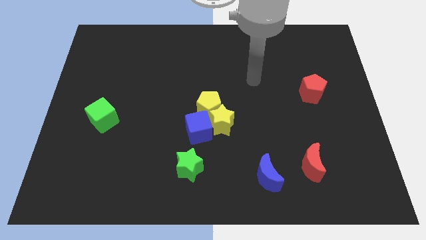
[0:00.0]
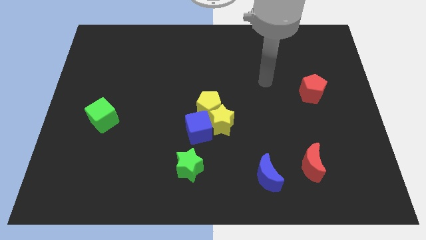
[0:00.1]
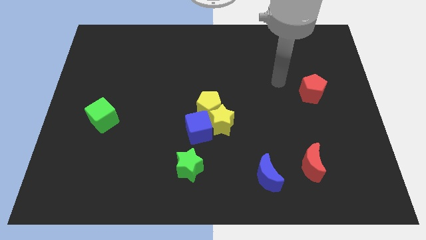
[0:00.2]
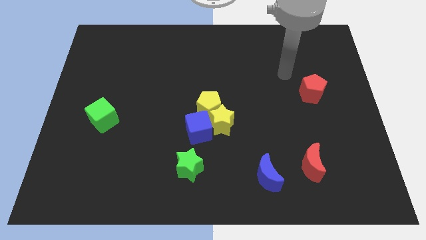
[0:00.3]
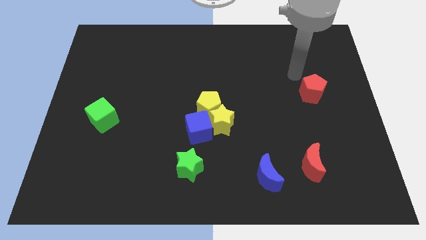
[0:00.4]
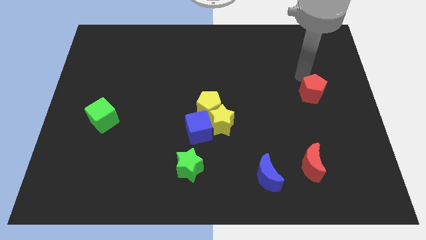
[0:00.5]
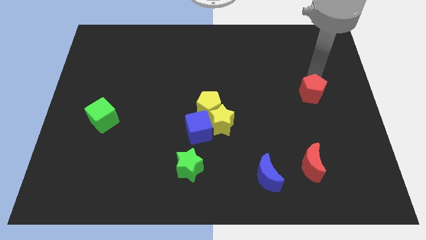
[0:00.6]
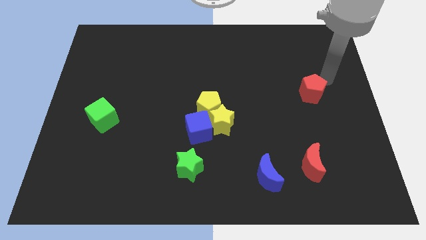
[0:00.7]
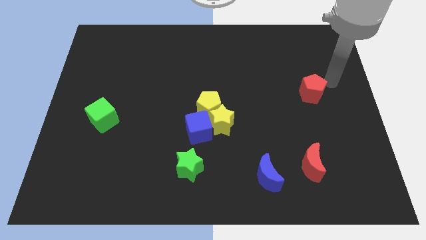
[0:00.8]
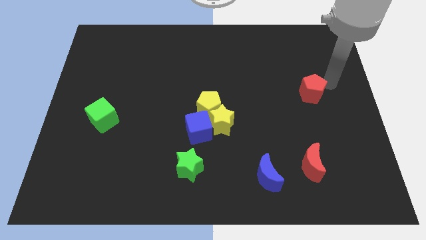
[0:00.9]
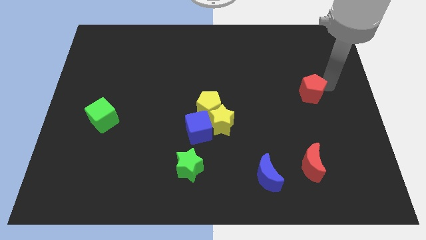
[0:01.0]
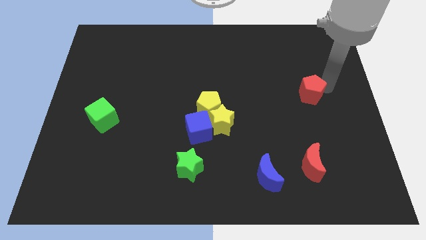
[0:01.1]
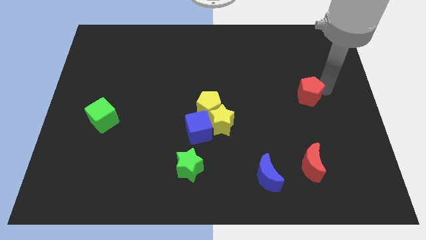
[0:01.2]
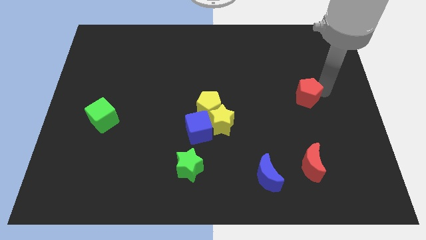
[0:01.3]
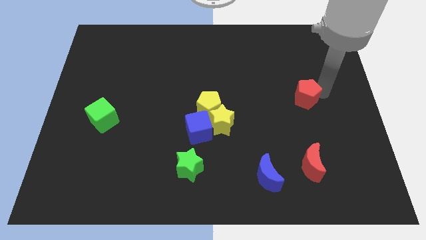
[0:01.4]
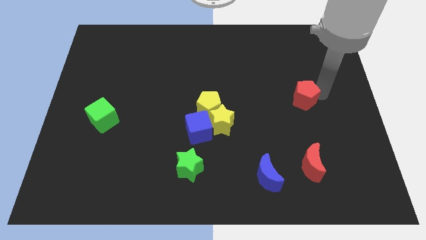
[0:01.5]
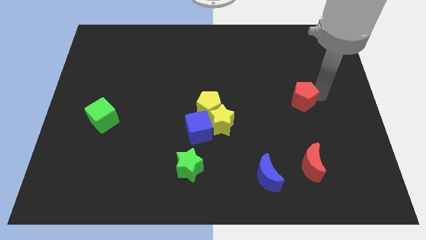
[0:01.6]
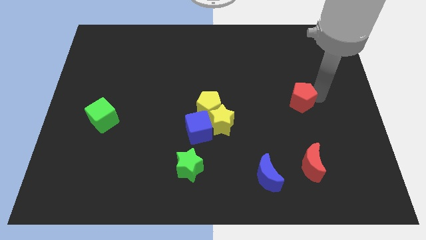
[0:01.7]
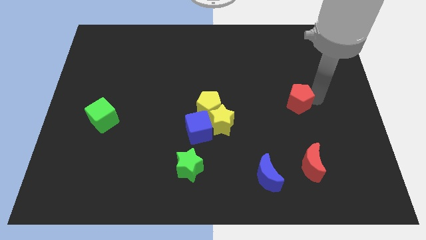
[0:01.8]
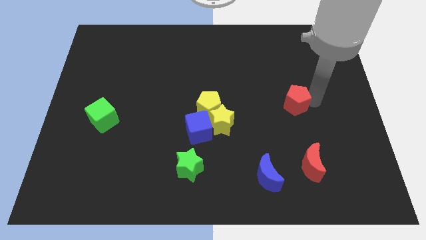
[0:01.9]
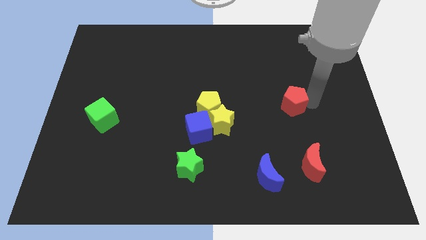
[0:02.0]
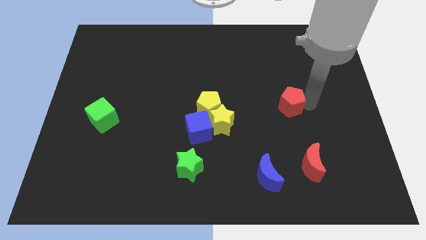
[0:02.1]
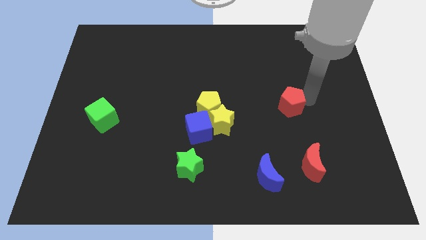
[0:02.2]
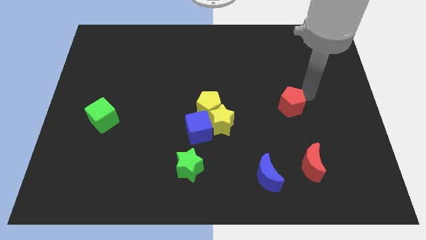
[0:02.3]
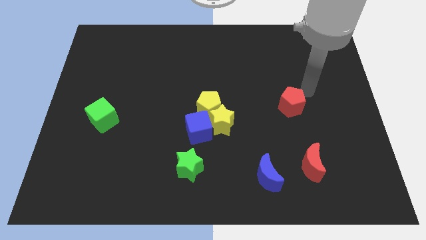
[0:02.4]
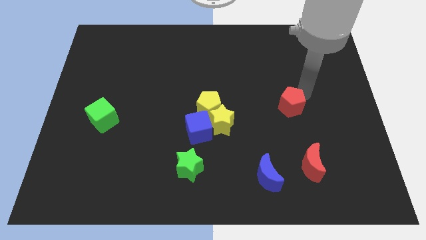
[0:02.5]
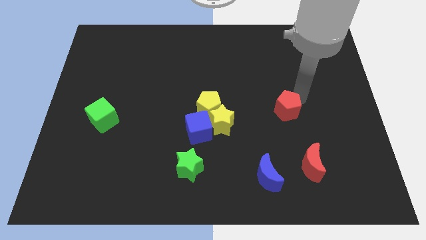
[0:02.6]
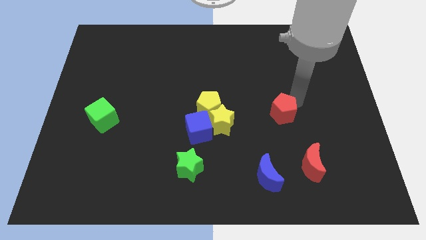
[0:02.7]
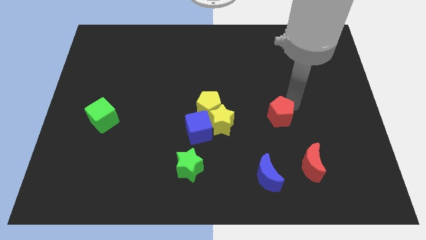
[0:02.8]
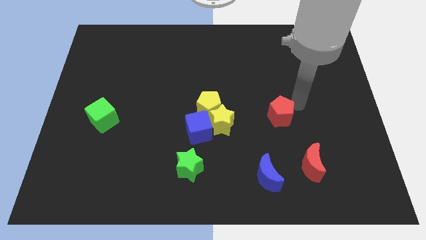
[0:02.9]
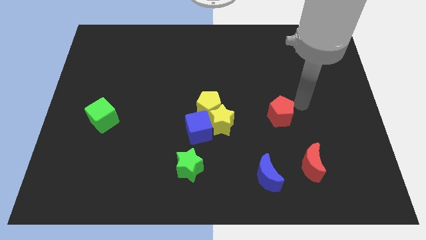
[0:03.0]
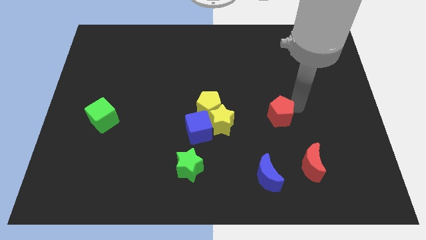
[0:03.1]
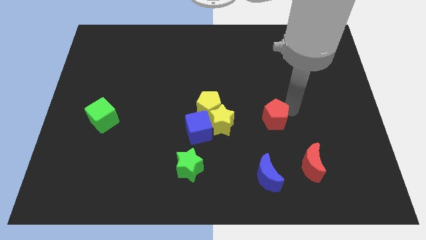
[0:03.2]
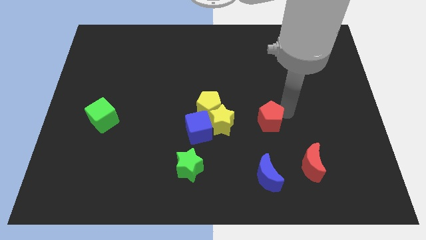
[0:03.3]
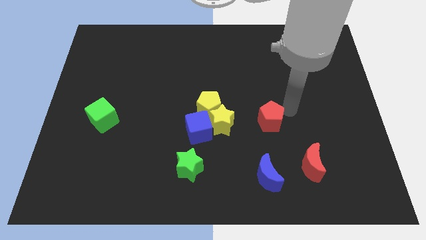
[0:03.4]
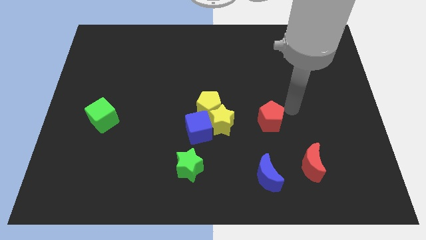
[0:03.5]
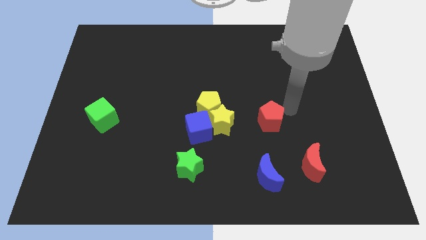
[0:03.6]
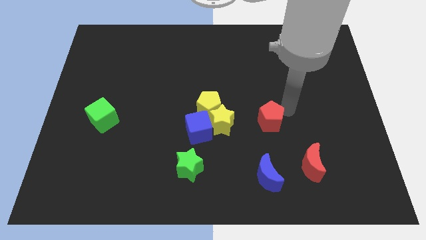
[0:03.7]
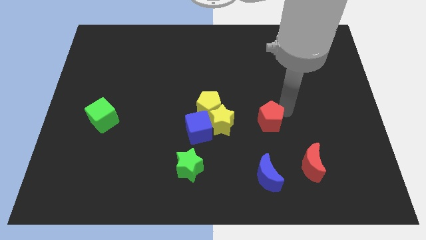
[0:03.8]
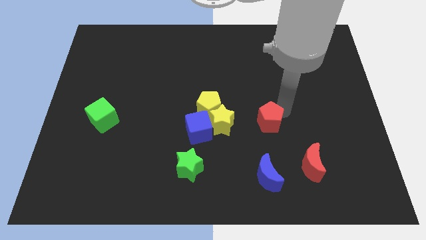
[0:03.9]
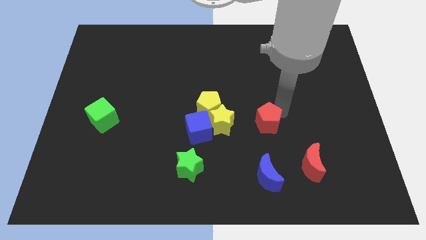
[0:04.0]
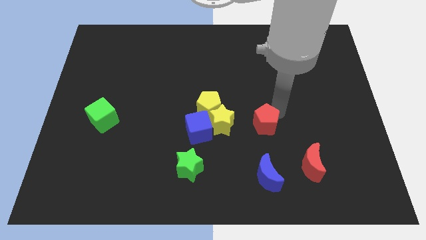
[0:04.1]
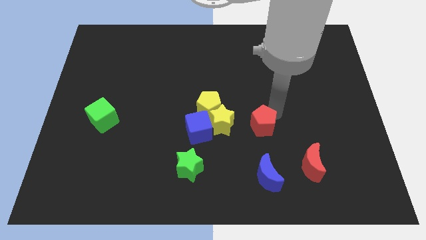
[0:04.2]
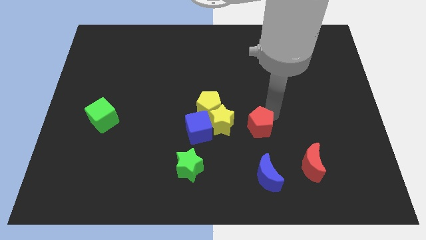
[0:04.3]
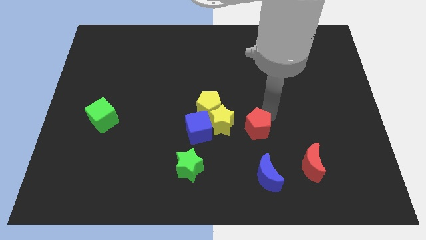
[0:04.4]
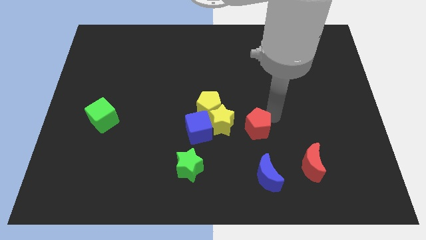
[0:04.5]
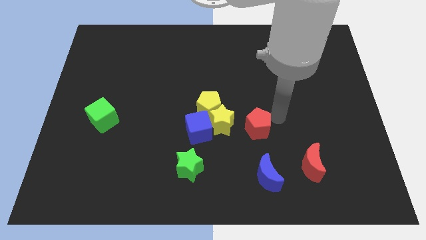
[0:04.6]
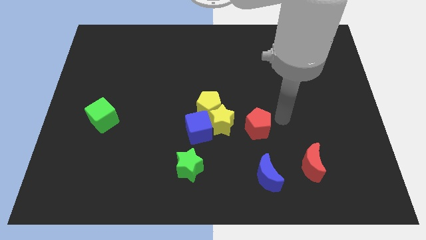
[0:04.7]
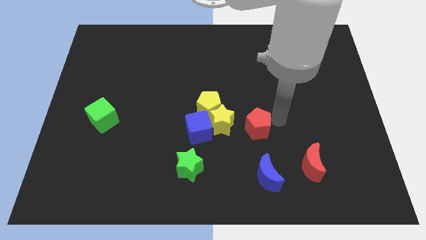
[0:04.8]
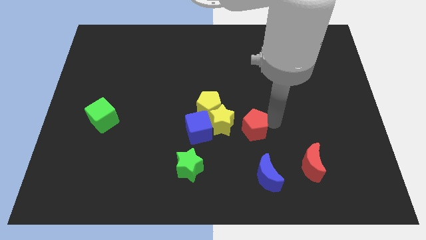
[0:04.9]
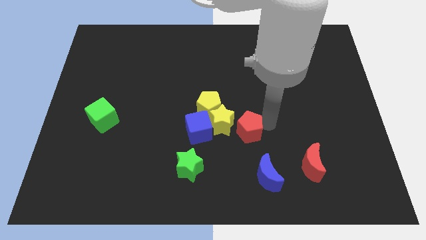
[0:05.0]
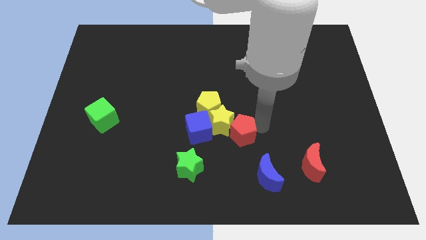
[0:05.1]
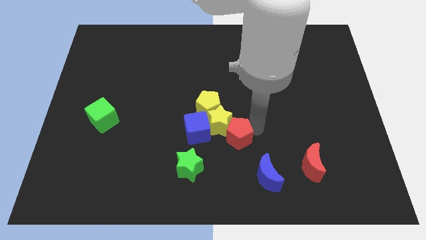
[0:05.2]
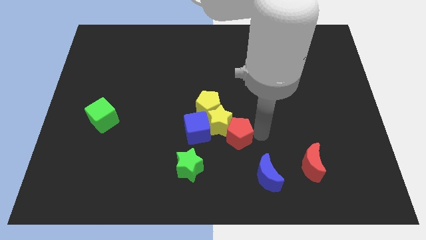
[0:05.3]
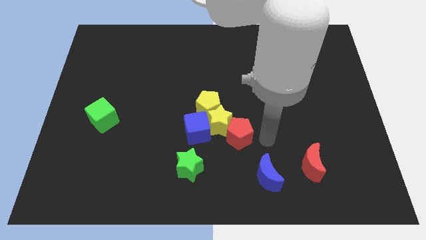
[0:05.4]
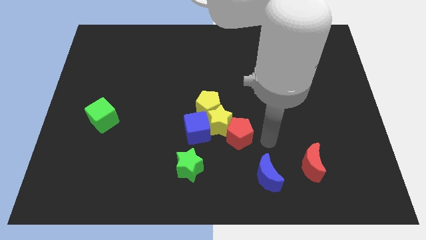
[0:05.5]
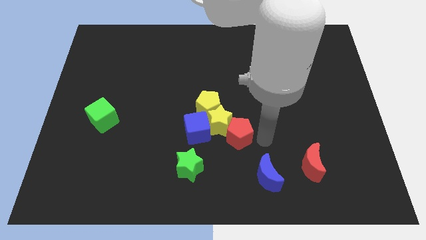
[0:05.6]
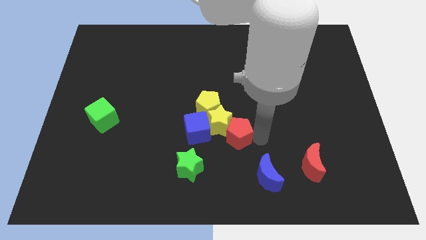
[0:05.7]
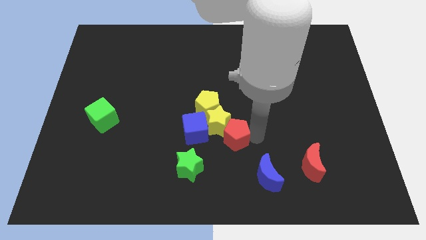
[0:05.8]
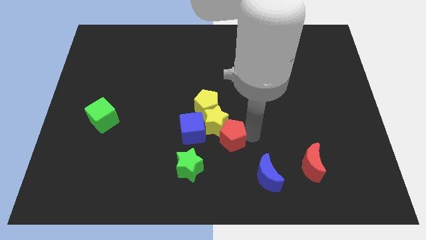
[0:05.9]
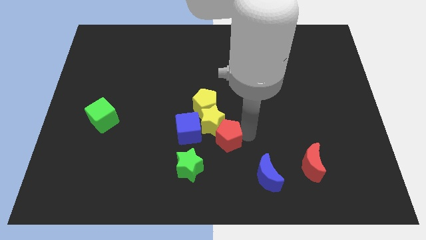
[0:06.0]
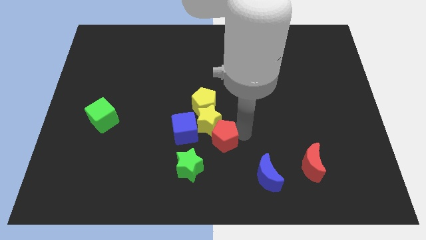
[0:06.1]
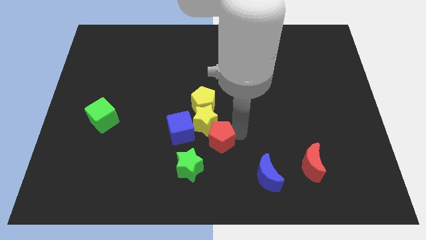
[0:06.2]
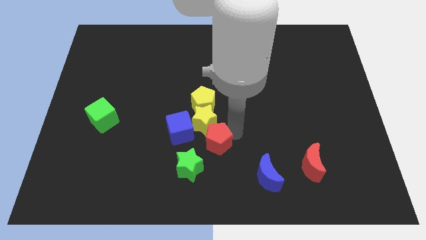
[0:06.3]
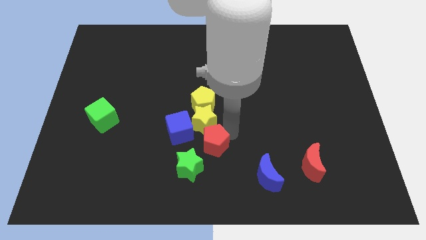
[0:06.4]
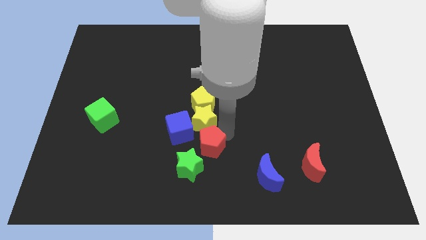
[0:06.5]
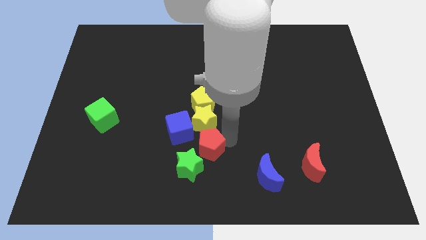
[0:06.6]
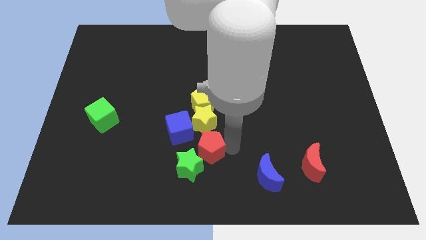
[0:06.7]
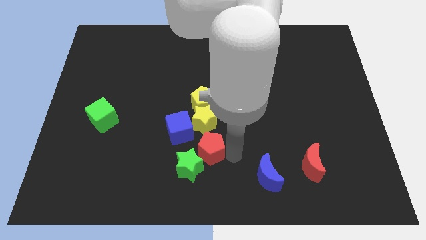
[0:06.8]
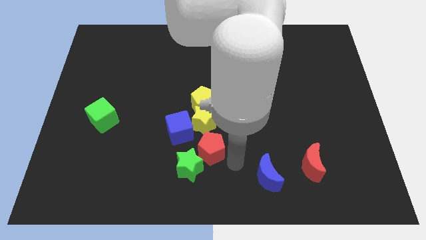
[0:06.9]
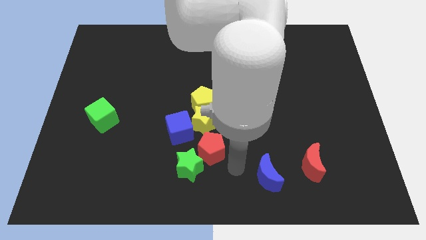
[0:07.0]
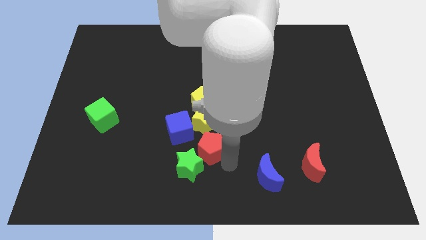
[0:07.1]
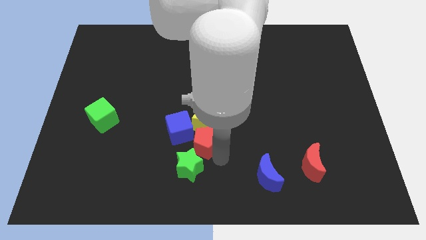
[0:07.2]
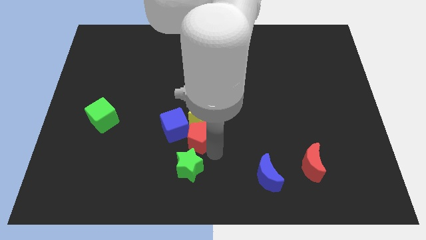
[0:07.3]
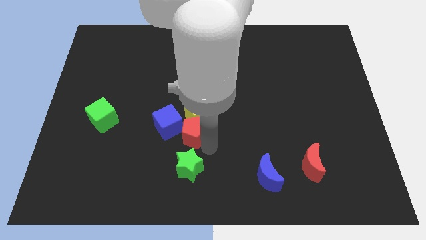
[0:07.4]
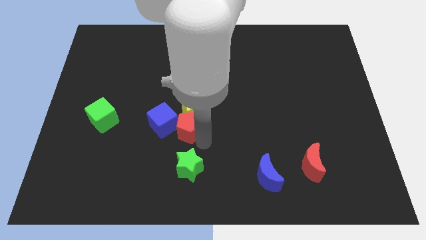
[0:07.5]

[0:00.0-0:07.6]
push the red pentagon towards the blue cube
